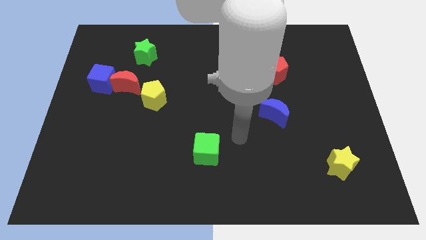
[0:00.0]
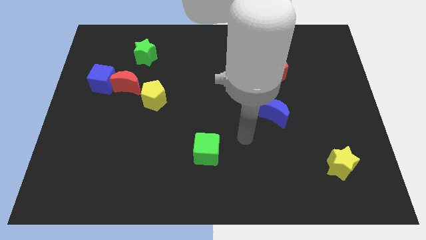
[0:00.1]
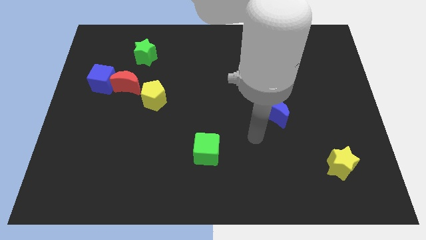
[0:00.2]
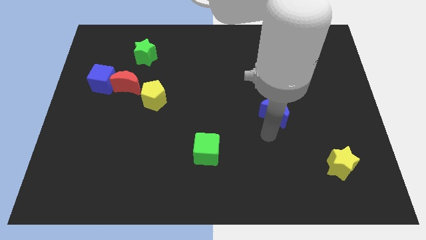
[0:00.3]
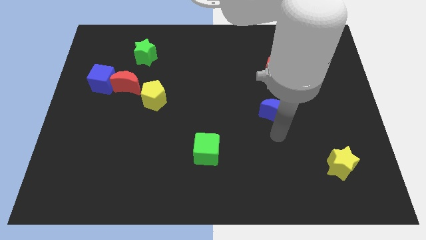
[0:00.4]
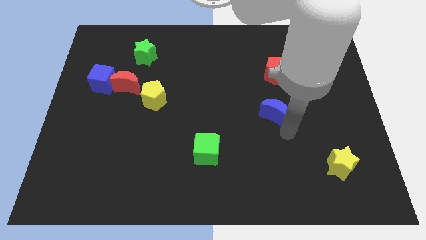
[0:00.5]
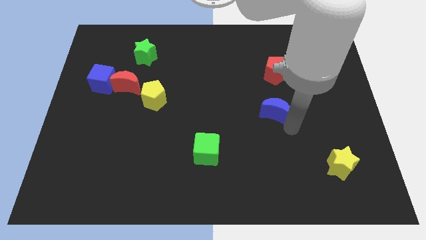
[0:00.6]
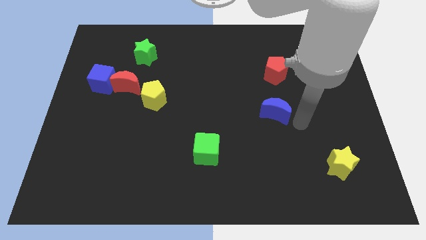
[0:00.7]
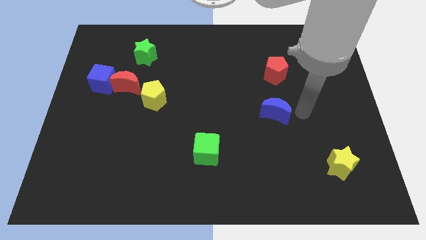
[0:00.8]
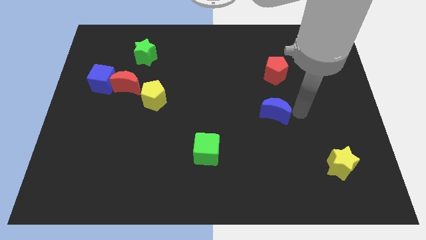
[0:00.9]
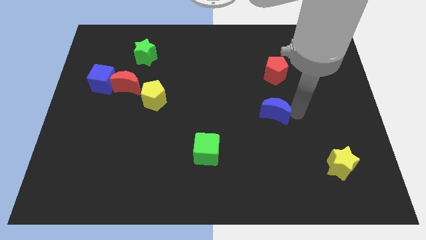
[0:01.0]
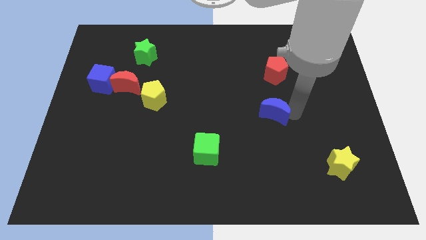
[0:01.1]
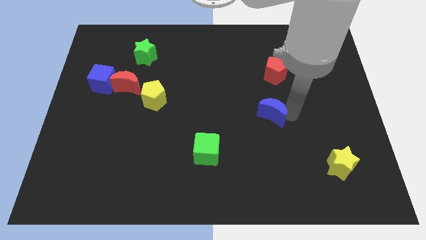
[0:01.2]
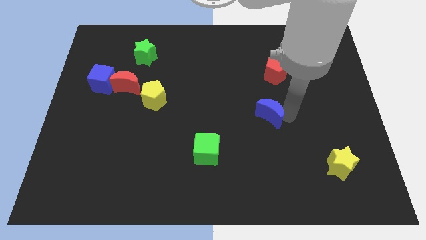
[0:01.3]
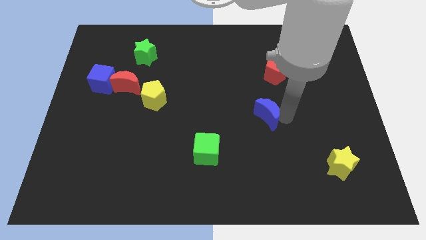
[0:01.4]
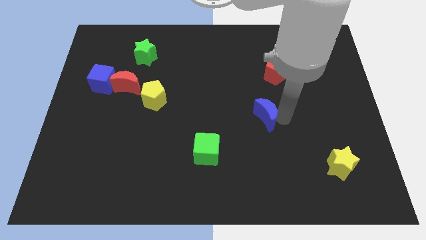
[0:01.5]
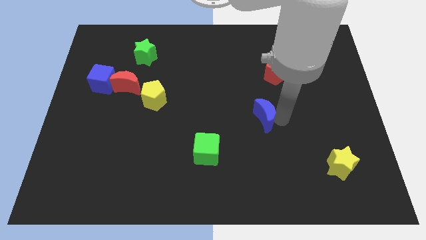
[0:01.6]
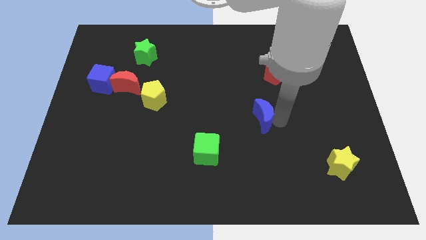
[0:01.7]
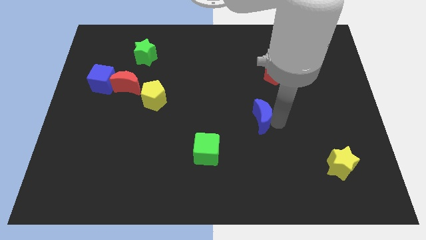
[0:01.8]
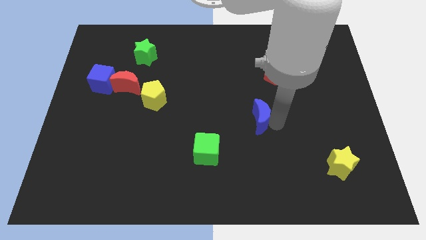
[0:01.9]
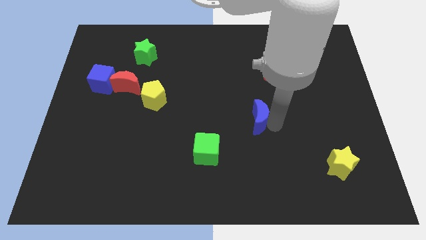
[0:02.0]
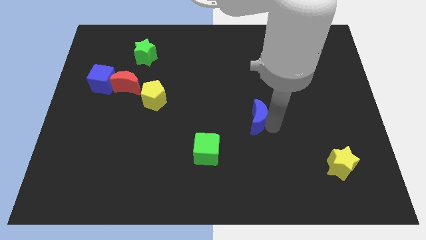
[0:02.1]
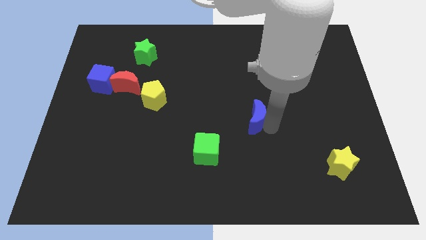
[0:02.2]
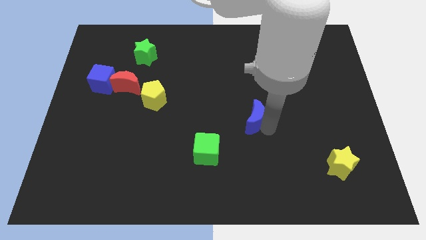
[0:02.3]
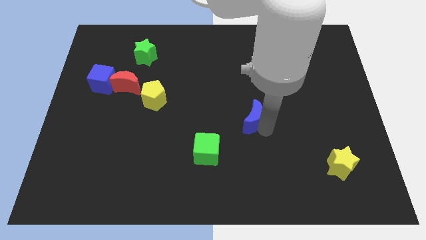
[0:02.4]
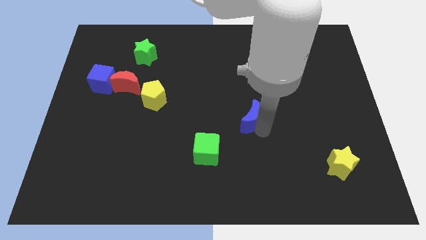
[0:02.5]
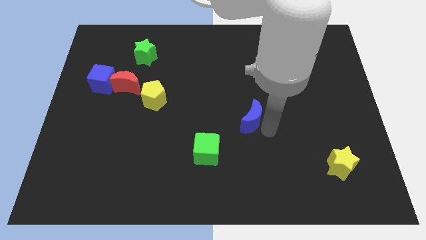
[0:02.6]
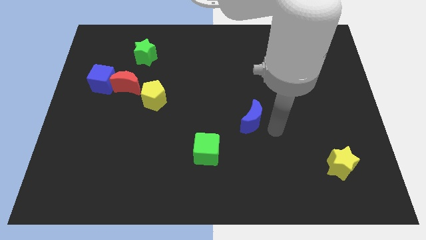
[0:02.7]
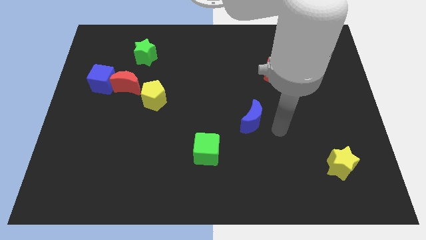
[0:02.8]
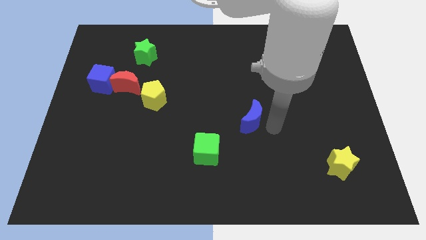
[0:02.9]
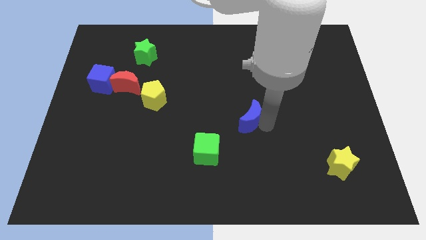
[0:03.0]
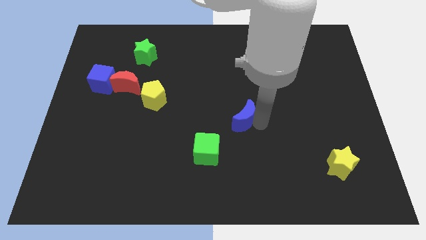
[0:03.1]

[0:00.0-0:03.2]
push the blue moon left a little bit

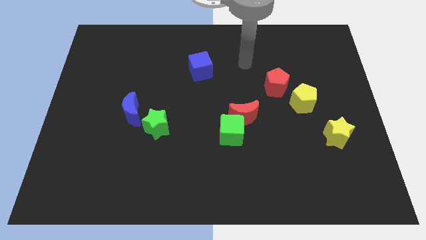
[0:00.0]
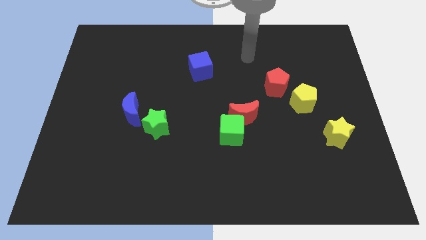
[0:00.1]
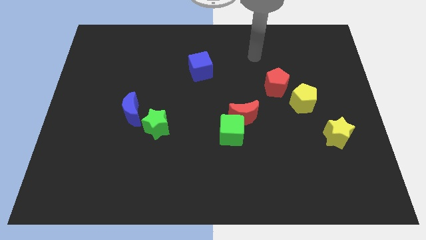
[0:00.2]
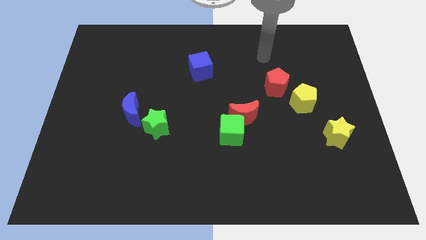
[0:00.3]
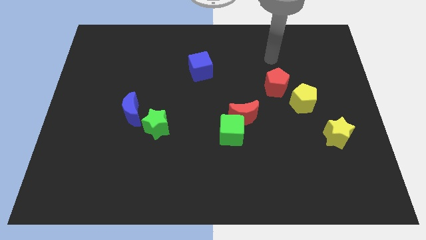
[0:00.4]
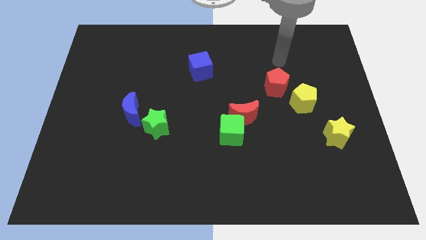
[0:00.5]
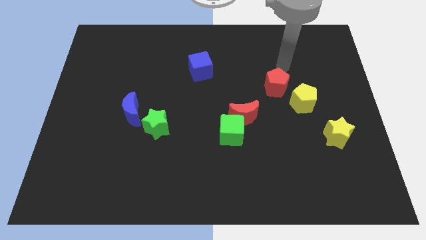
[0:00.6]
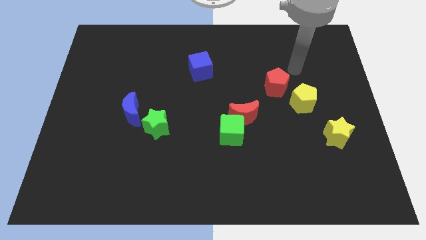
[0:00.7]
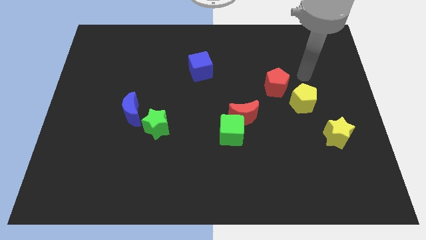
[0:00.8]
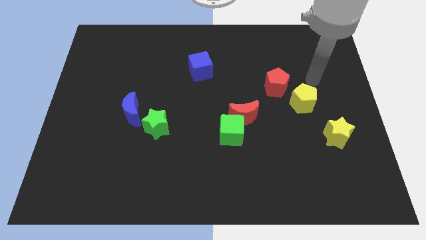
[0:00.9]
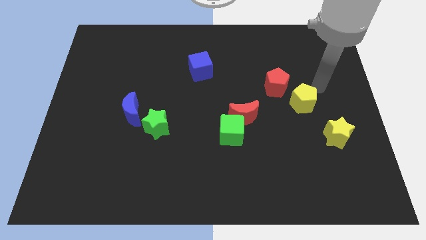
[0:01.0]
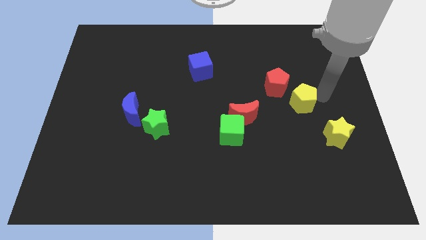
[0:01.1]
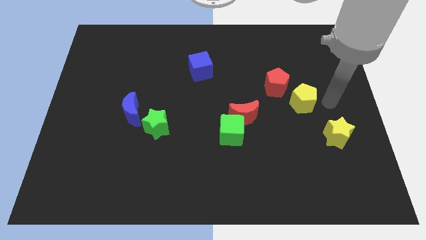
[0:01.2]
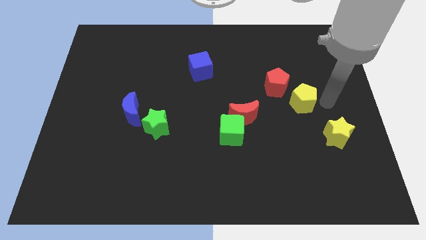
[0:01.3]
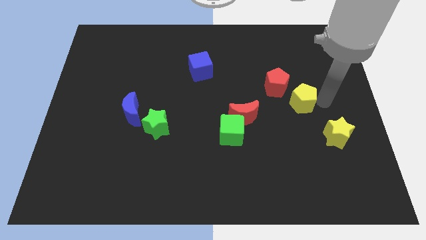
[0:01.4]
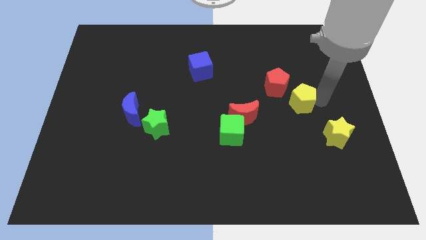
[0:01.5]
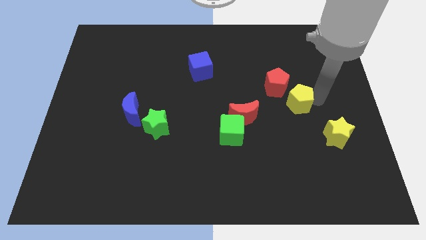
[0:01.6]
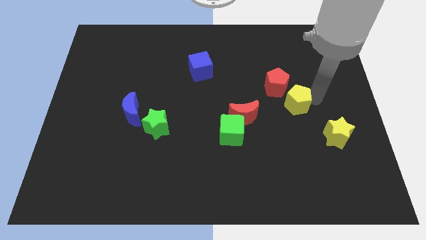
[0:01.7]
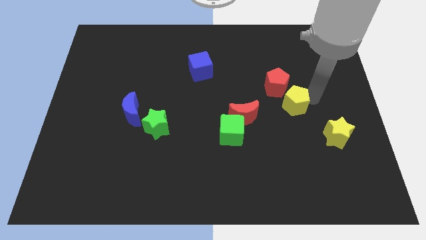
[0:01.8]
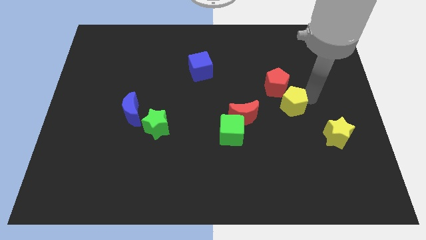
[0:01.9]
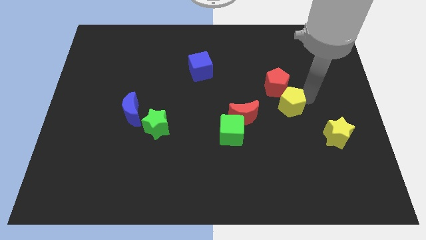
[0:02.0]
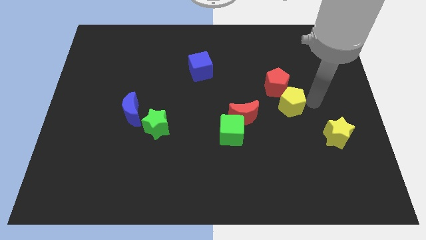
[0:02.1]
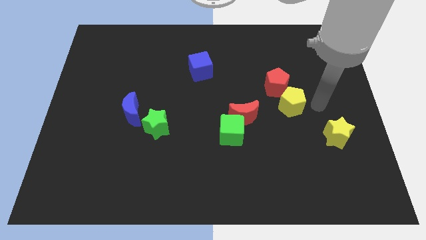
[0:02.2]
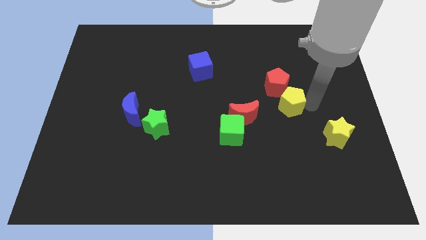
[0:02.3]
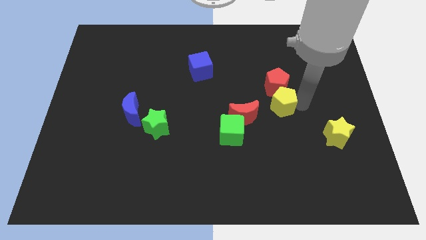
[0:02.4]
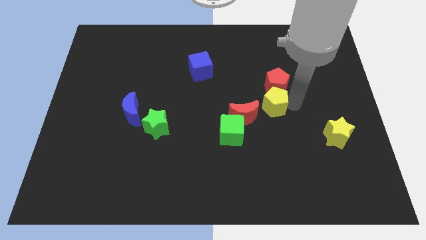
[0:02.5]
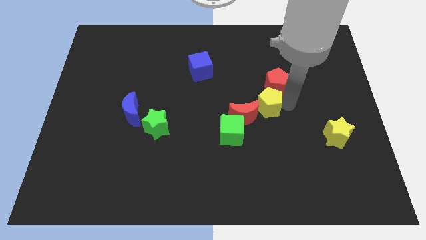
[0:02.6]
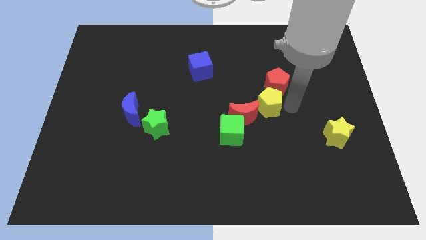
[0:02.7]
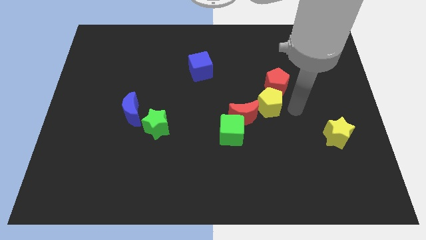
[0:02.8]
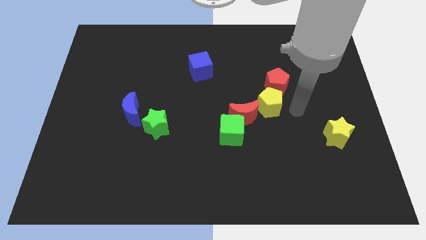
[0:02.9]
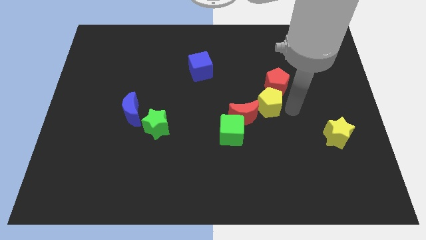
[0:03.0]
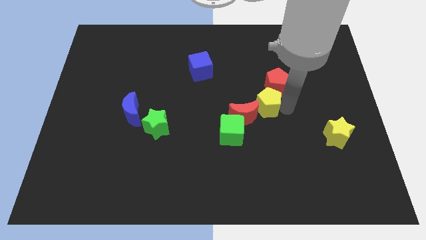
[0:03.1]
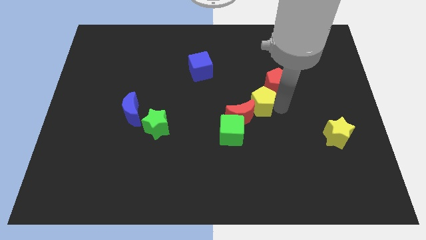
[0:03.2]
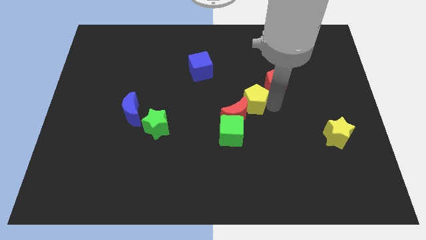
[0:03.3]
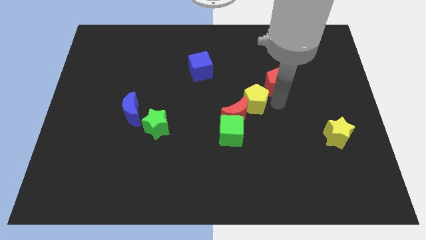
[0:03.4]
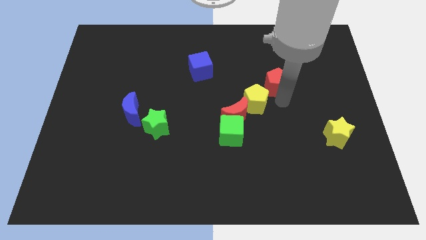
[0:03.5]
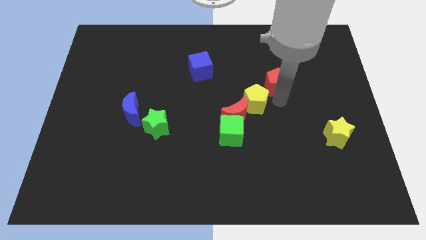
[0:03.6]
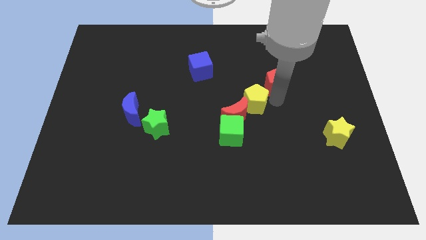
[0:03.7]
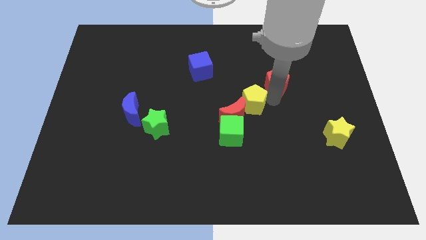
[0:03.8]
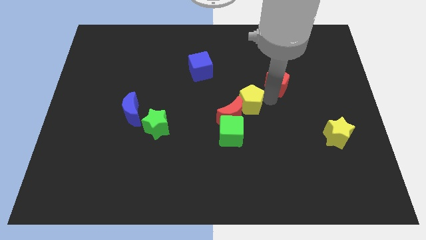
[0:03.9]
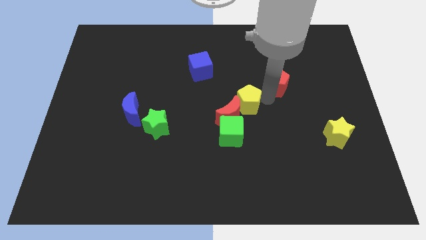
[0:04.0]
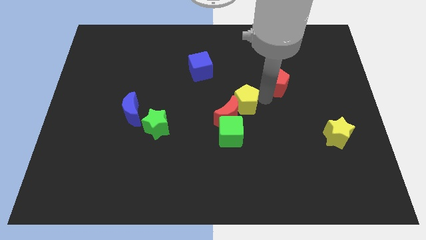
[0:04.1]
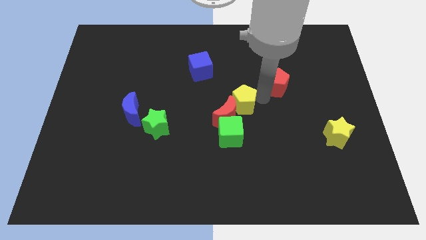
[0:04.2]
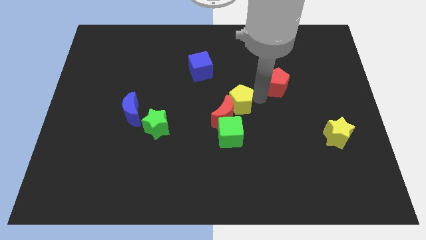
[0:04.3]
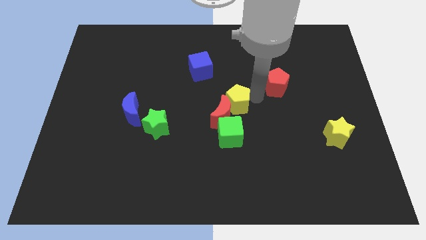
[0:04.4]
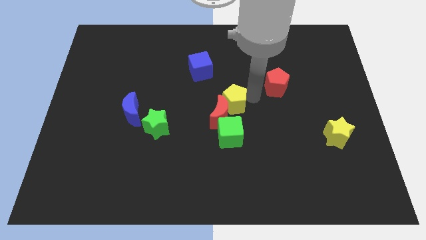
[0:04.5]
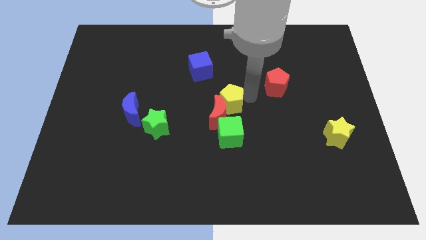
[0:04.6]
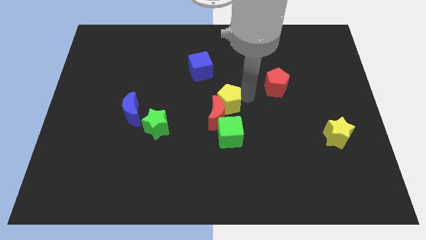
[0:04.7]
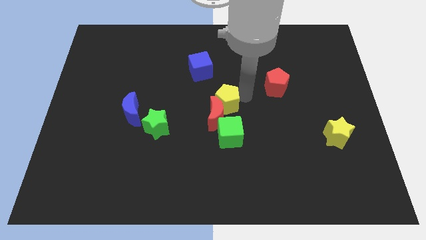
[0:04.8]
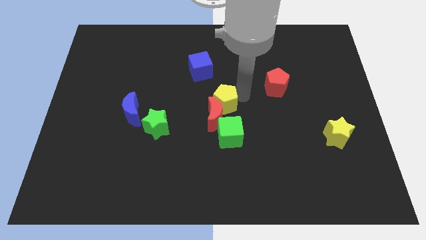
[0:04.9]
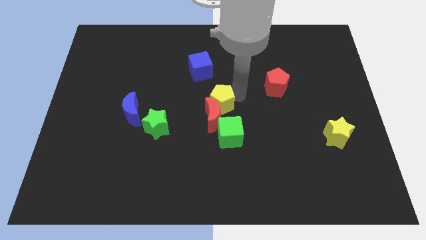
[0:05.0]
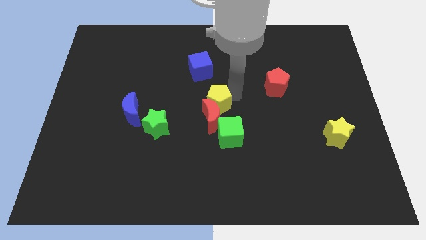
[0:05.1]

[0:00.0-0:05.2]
slide the yellow pentagon left
